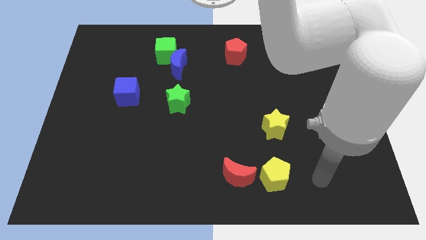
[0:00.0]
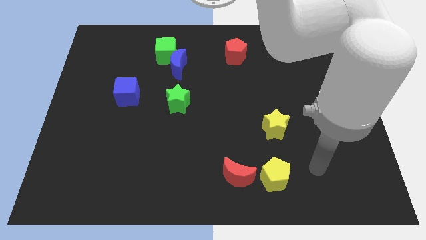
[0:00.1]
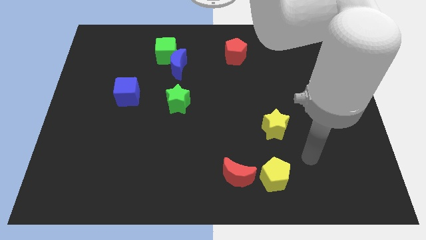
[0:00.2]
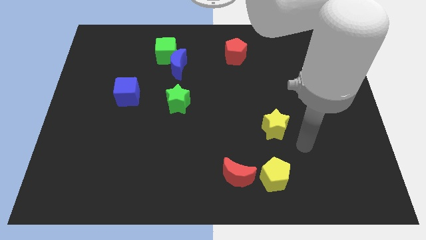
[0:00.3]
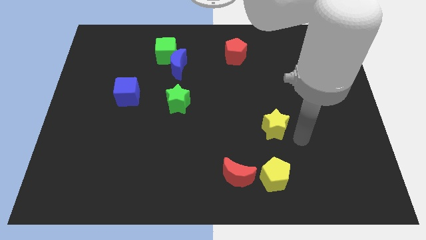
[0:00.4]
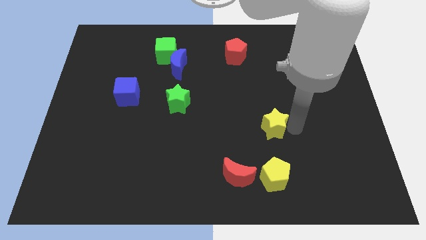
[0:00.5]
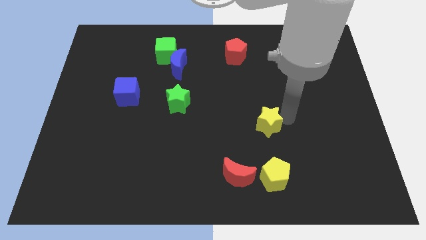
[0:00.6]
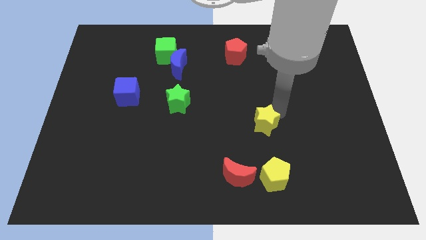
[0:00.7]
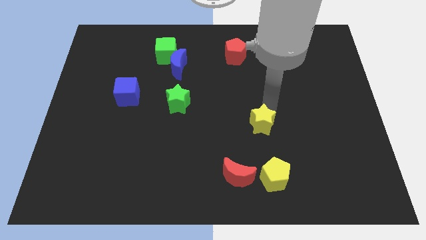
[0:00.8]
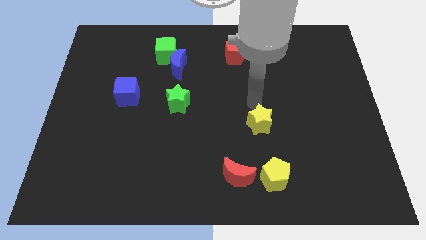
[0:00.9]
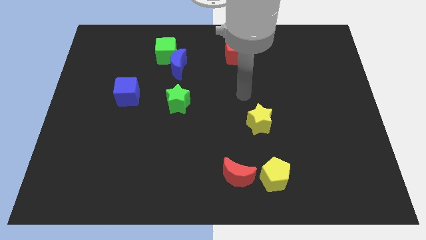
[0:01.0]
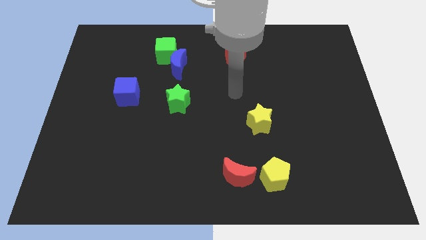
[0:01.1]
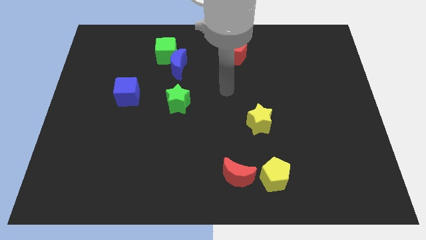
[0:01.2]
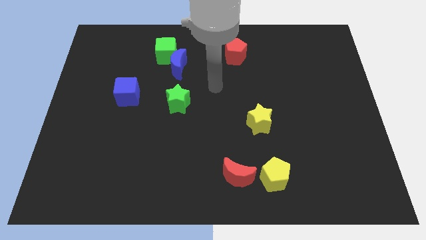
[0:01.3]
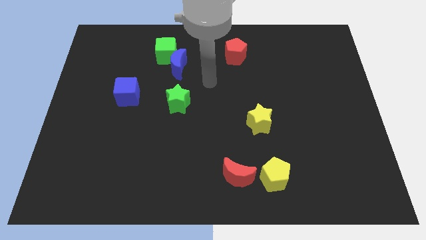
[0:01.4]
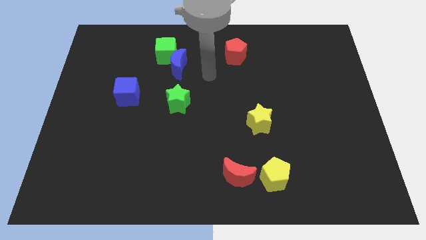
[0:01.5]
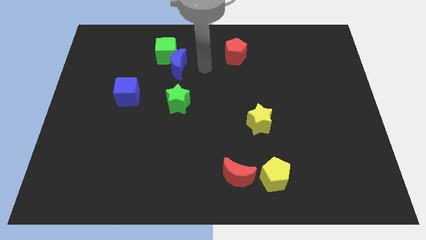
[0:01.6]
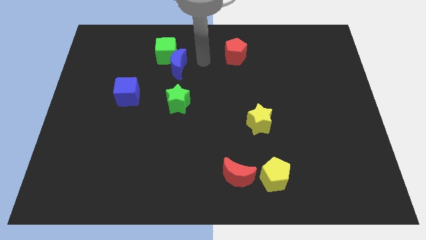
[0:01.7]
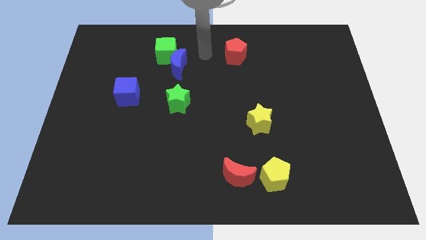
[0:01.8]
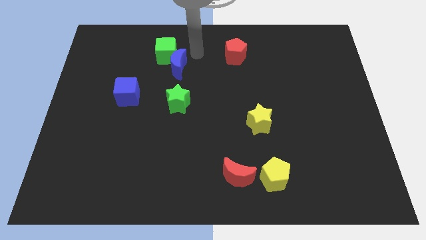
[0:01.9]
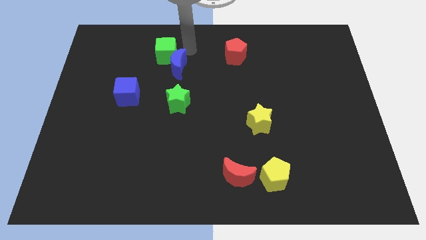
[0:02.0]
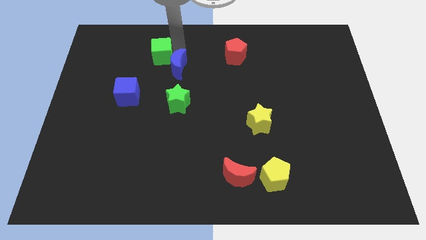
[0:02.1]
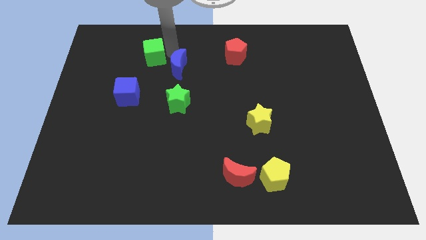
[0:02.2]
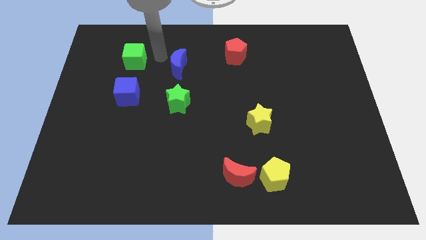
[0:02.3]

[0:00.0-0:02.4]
move the blue moon away from the green cube

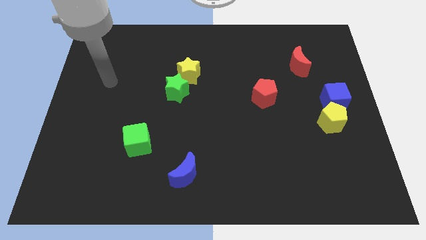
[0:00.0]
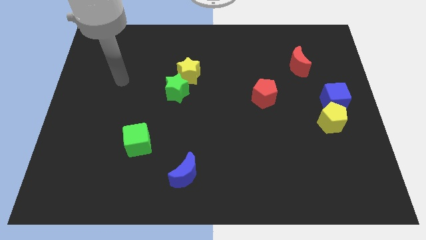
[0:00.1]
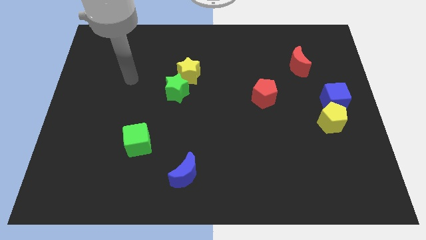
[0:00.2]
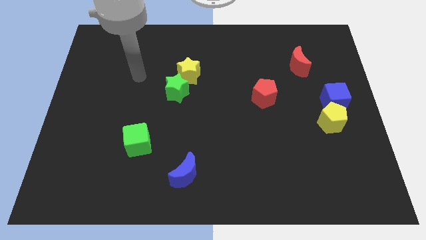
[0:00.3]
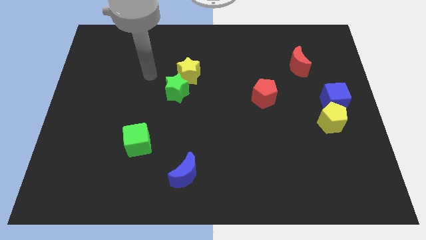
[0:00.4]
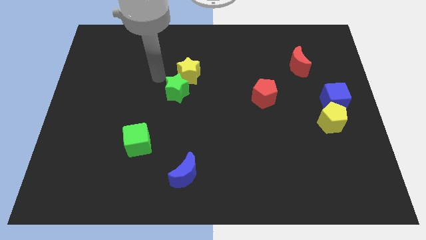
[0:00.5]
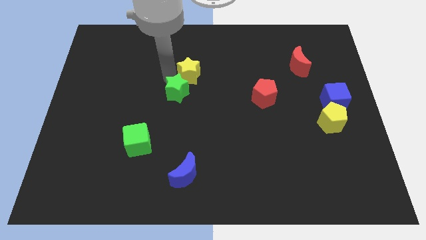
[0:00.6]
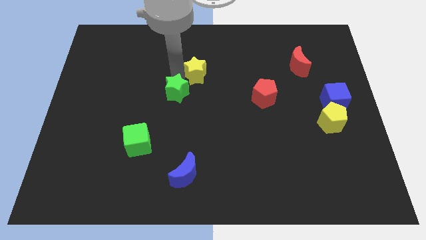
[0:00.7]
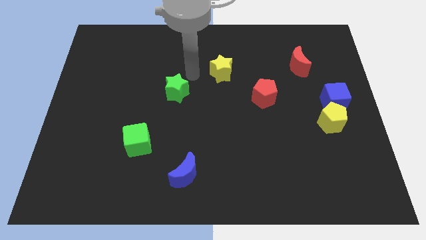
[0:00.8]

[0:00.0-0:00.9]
separate the green star from the yellow star

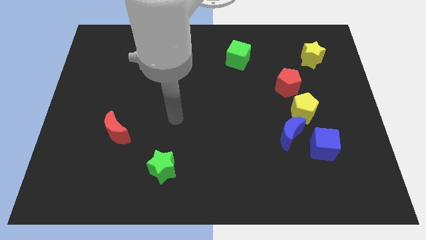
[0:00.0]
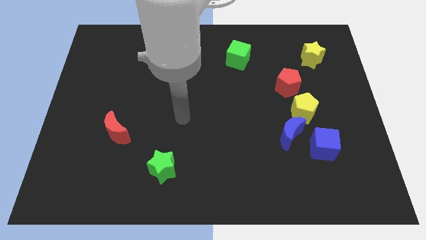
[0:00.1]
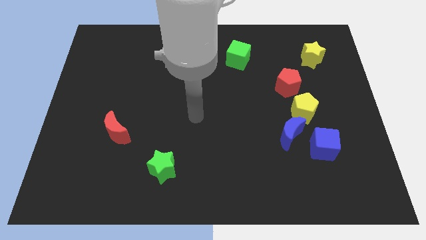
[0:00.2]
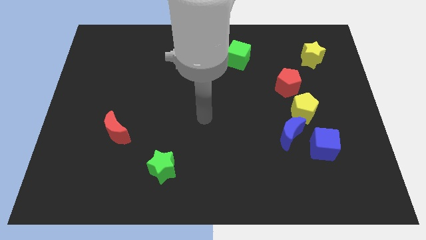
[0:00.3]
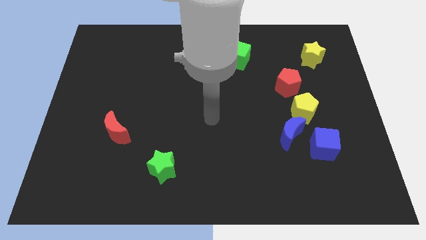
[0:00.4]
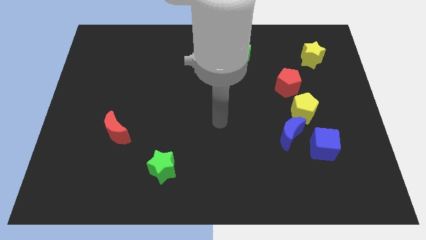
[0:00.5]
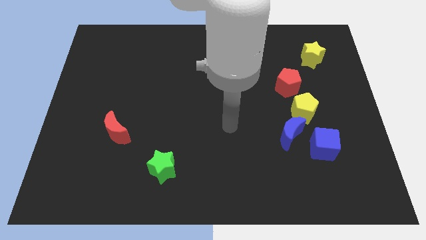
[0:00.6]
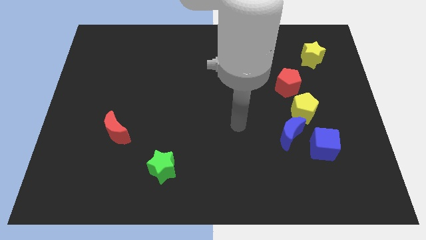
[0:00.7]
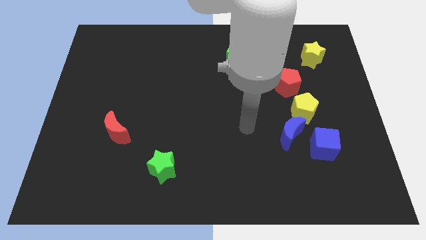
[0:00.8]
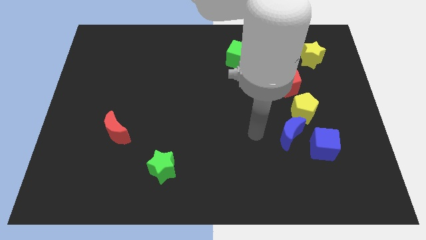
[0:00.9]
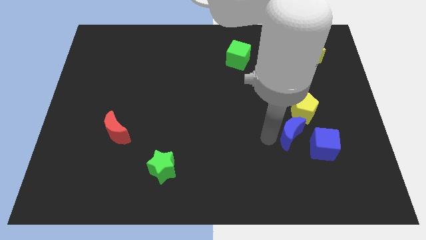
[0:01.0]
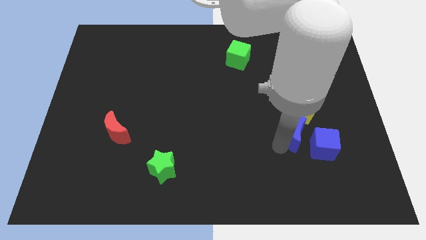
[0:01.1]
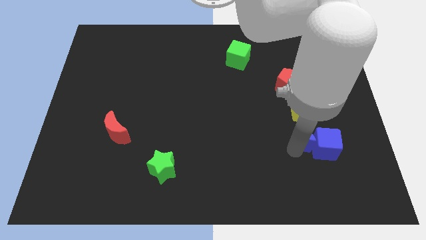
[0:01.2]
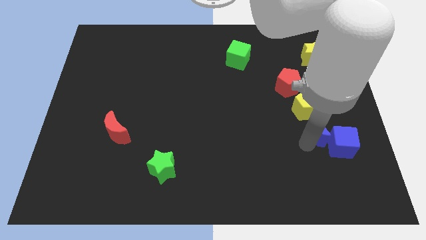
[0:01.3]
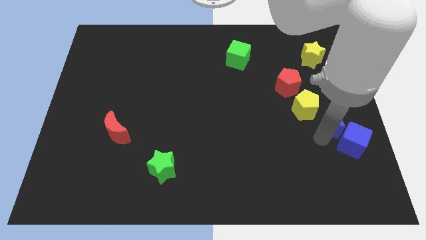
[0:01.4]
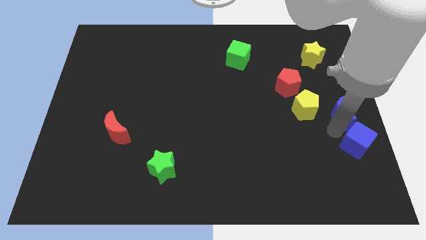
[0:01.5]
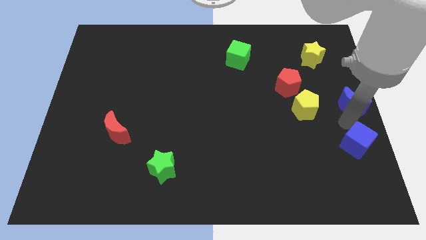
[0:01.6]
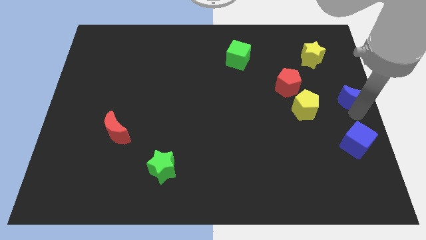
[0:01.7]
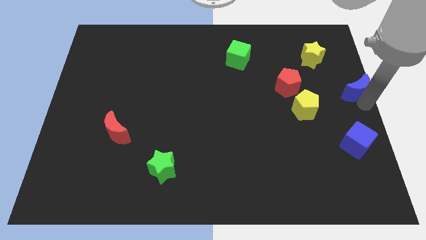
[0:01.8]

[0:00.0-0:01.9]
separate the blue moon from the yellow pentagon and blue cube

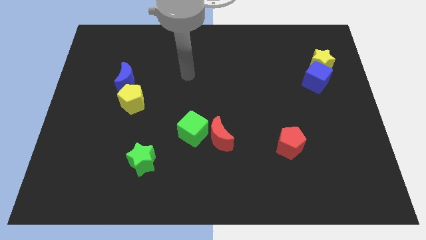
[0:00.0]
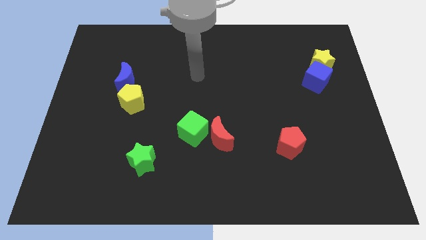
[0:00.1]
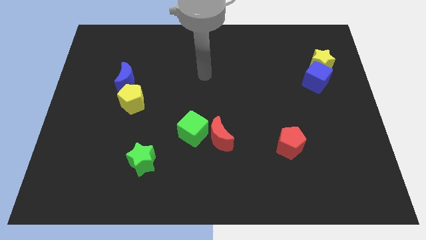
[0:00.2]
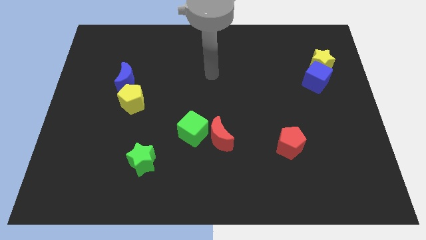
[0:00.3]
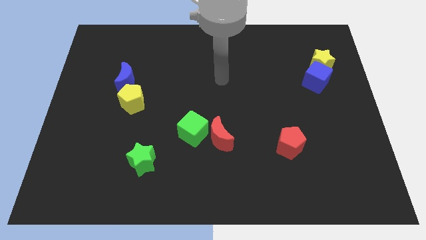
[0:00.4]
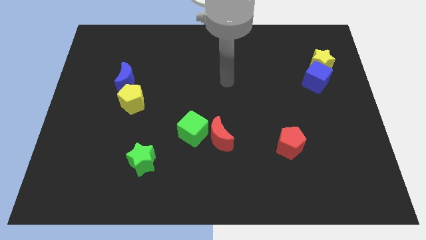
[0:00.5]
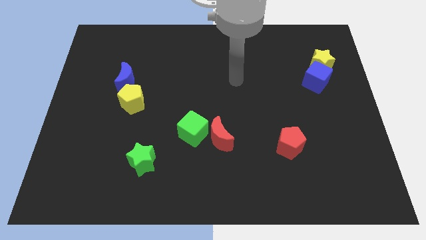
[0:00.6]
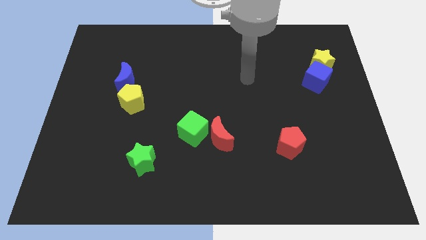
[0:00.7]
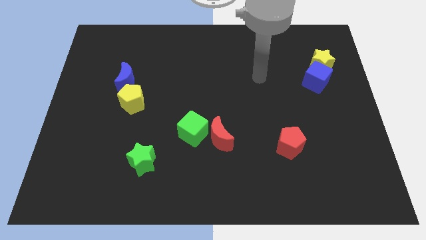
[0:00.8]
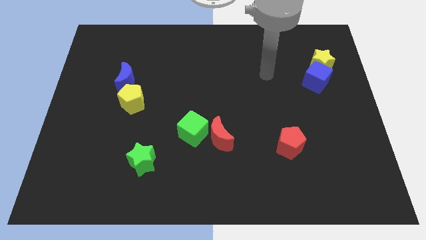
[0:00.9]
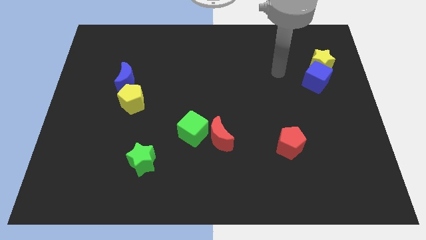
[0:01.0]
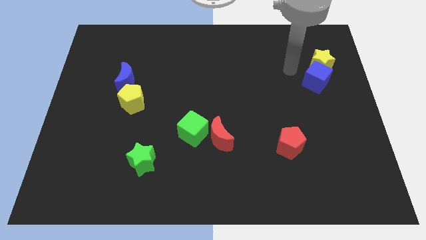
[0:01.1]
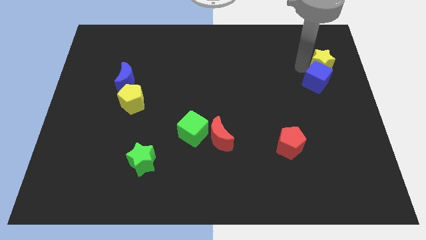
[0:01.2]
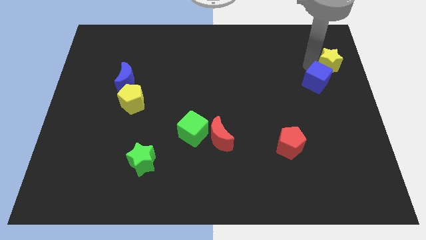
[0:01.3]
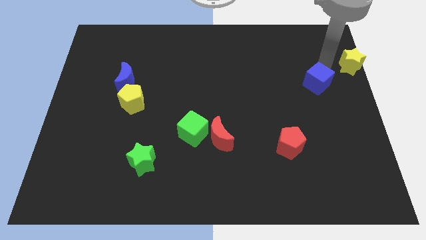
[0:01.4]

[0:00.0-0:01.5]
move the blue cube away from the yellow star

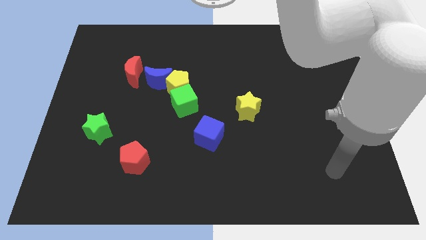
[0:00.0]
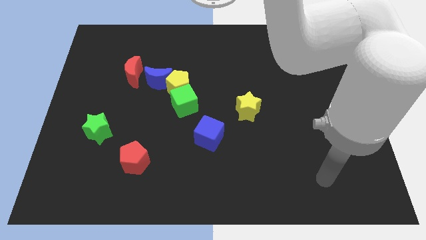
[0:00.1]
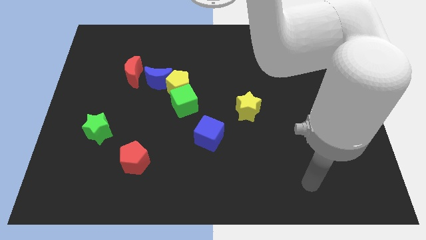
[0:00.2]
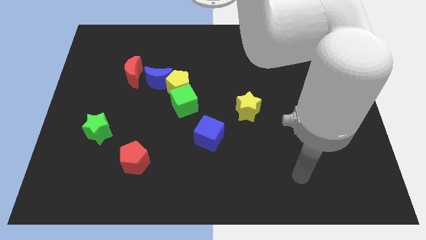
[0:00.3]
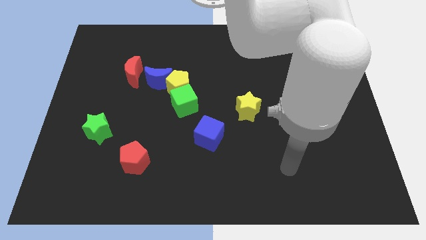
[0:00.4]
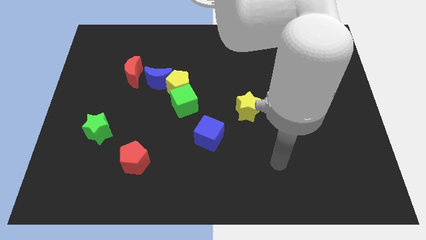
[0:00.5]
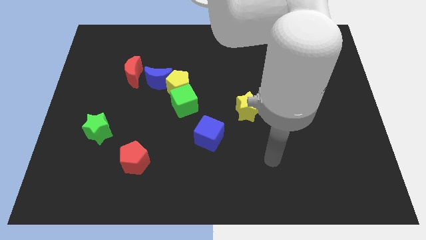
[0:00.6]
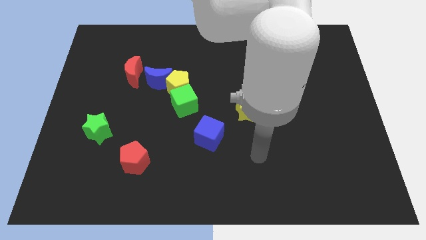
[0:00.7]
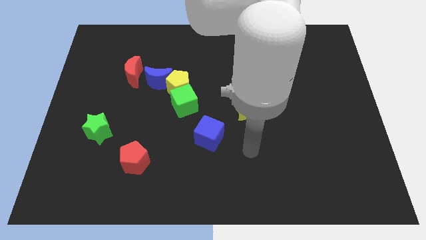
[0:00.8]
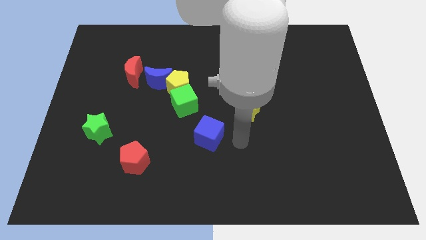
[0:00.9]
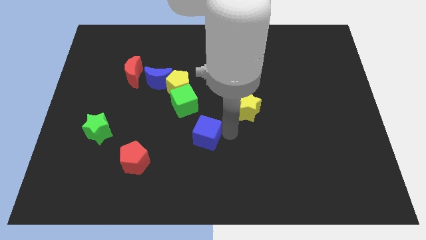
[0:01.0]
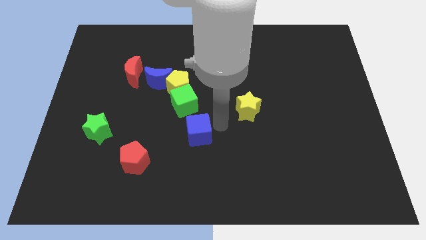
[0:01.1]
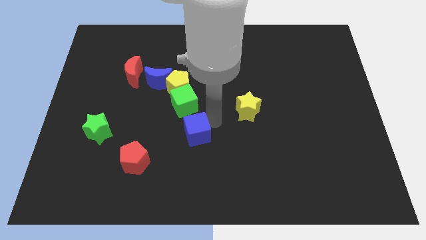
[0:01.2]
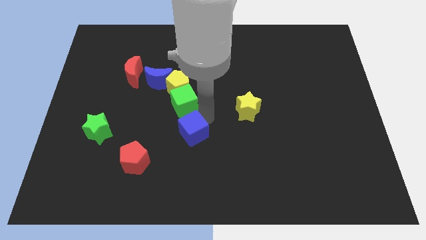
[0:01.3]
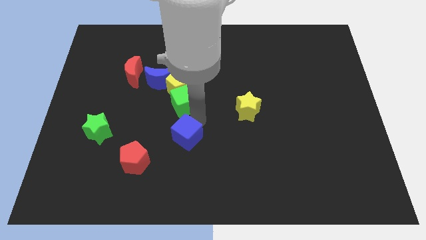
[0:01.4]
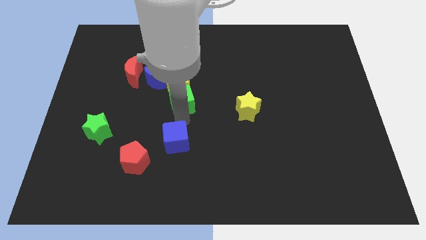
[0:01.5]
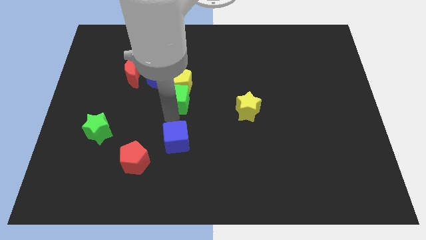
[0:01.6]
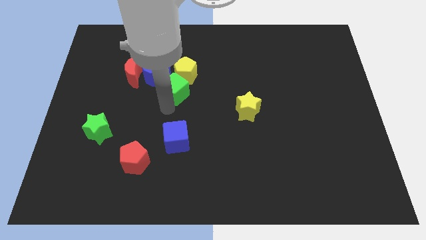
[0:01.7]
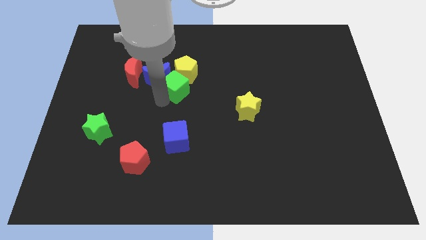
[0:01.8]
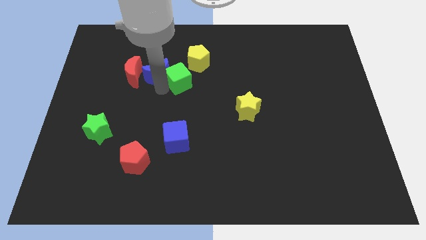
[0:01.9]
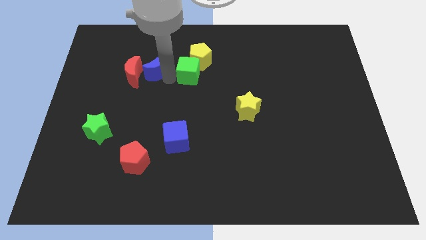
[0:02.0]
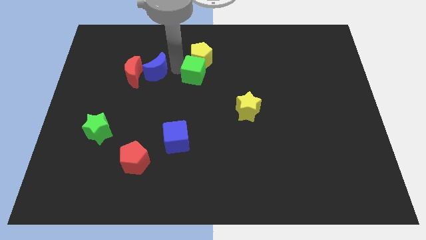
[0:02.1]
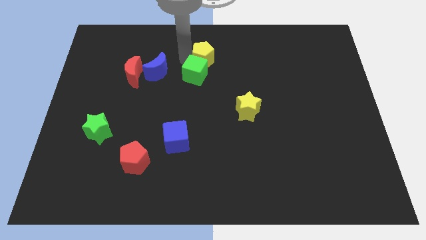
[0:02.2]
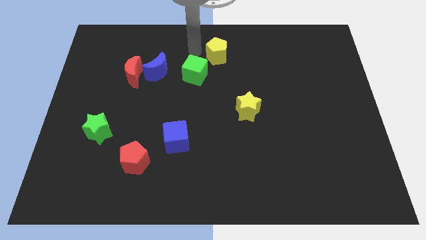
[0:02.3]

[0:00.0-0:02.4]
pull the yellow pentagon apart from the green cube and blue moon

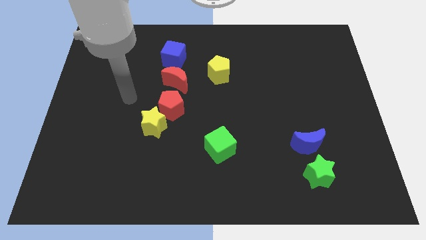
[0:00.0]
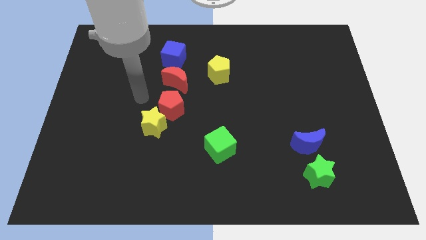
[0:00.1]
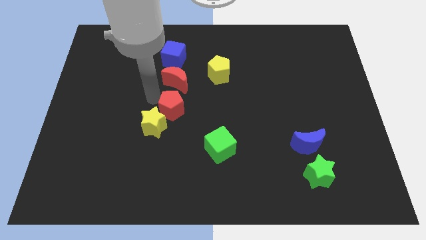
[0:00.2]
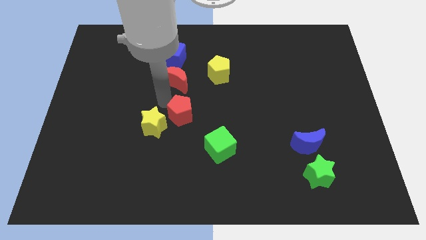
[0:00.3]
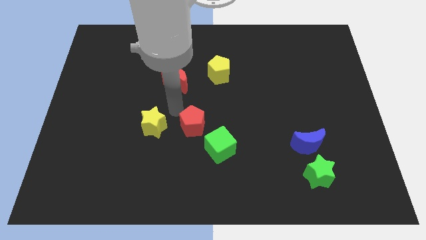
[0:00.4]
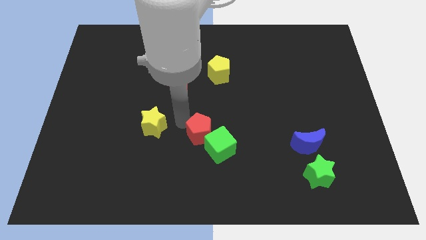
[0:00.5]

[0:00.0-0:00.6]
separate the yellow star from the red pentagon
